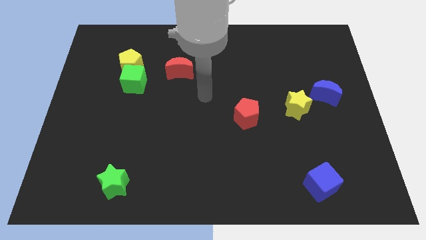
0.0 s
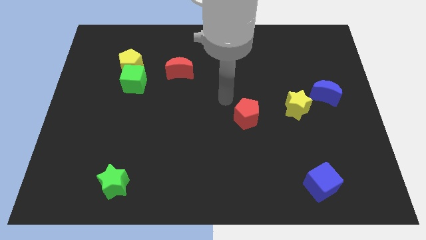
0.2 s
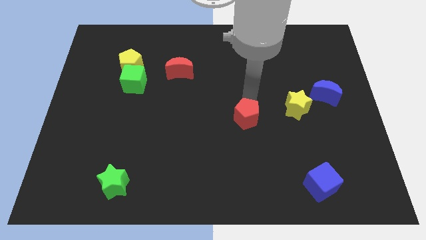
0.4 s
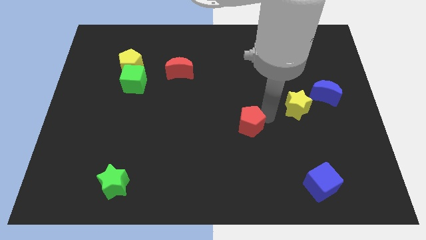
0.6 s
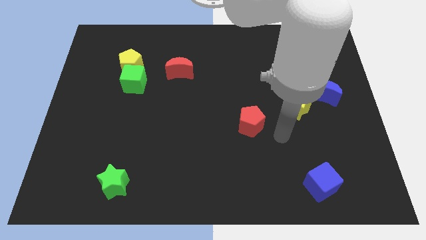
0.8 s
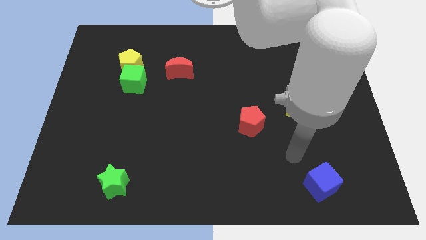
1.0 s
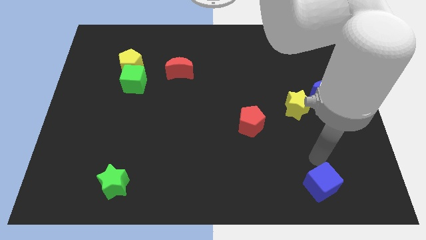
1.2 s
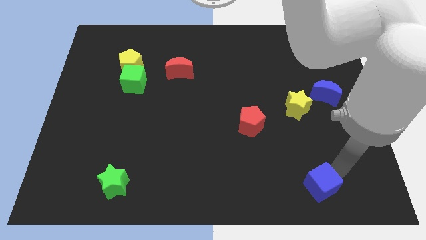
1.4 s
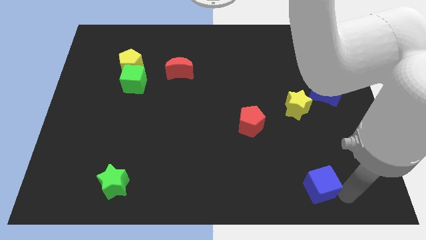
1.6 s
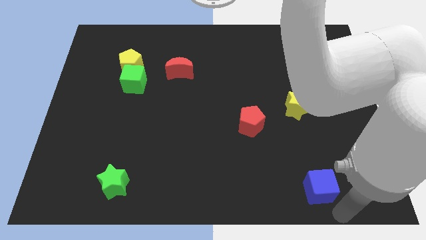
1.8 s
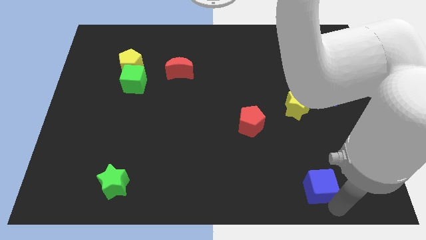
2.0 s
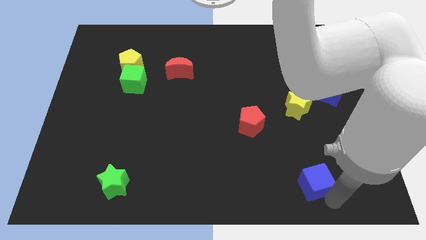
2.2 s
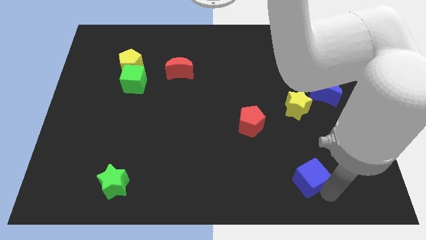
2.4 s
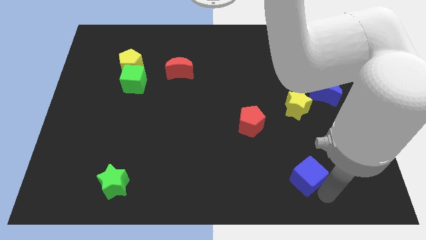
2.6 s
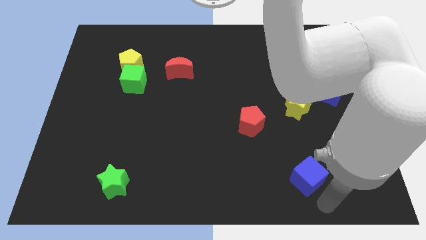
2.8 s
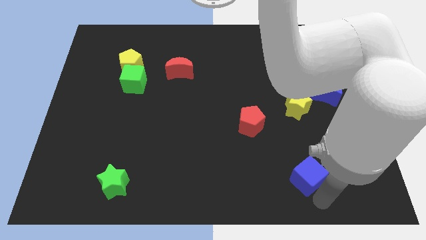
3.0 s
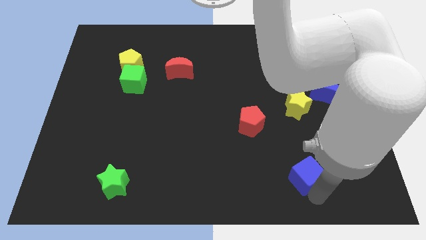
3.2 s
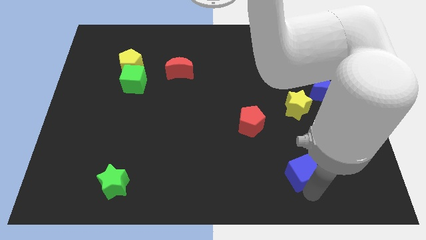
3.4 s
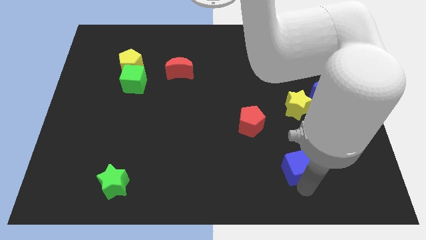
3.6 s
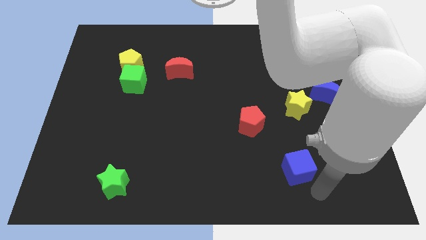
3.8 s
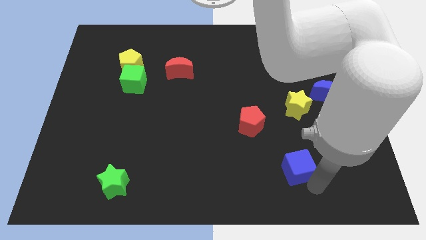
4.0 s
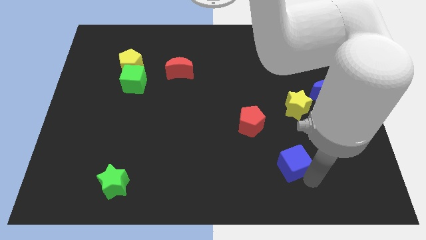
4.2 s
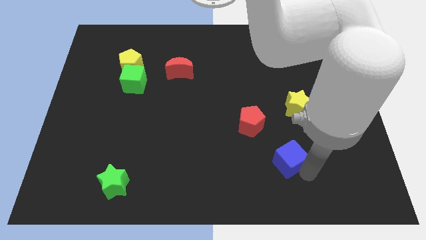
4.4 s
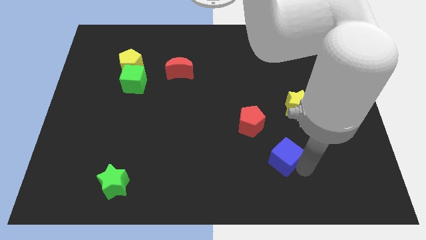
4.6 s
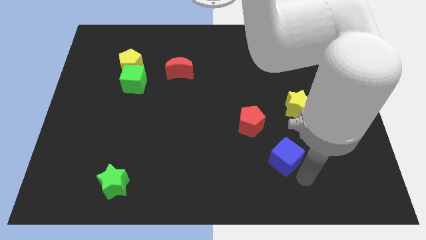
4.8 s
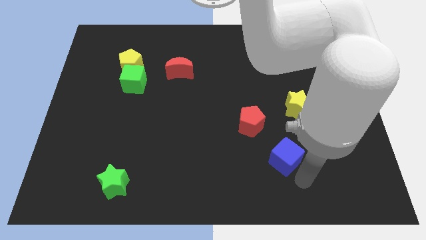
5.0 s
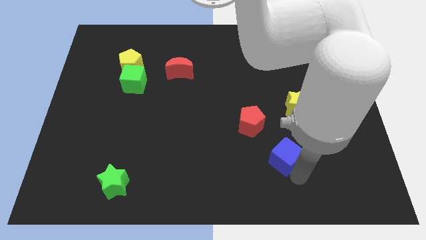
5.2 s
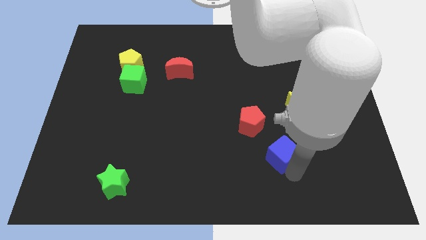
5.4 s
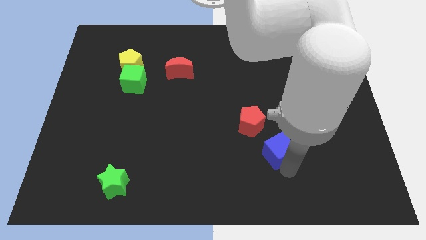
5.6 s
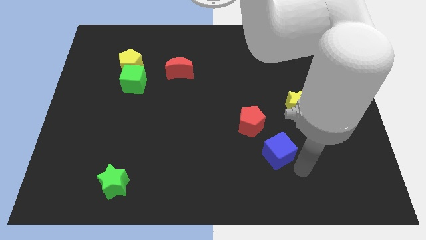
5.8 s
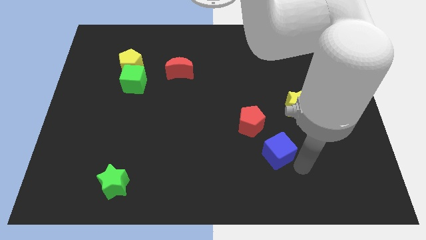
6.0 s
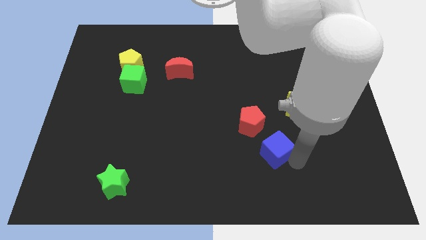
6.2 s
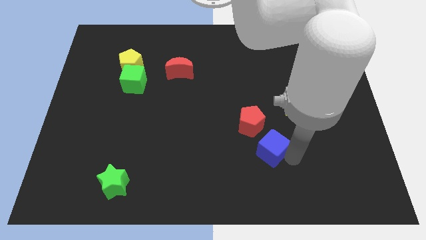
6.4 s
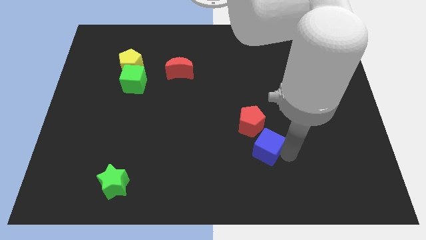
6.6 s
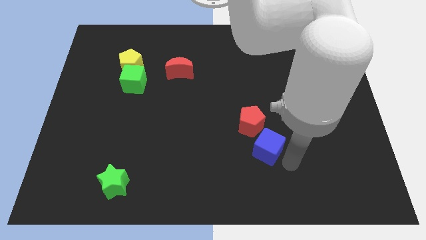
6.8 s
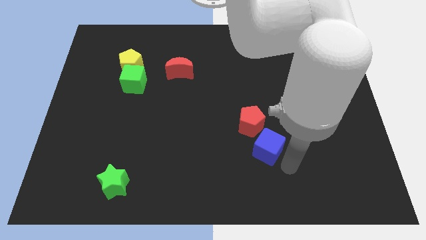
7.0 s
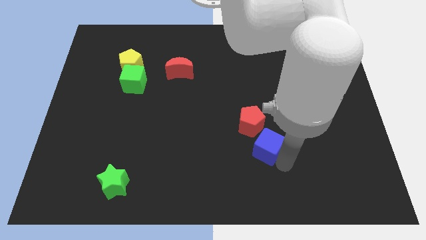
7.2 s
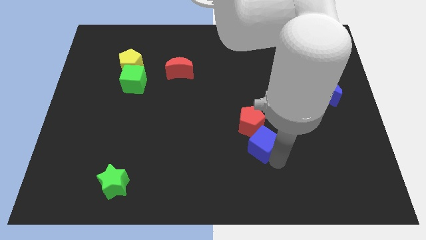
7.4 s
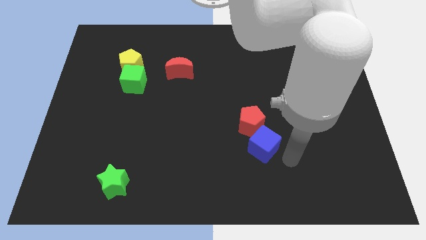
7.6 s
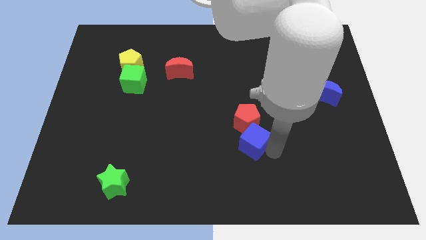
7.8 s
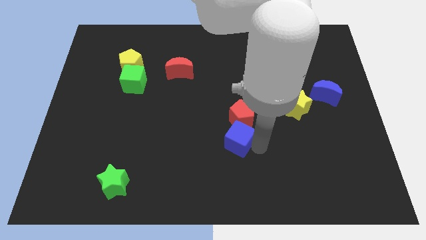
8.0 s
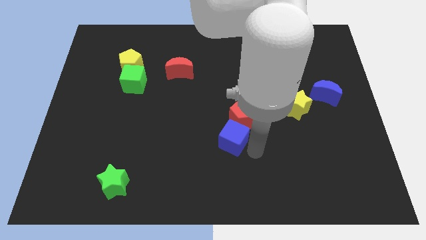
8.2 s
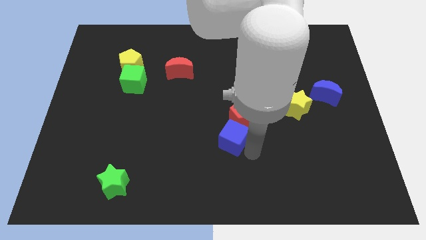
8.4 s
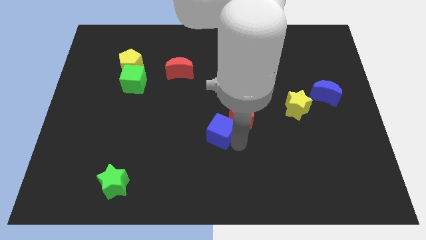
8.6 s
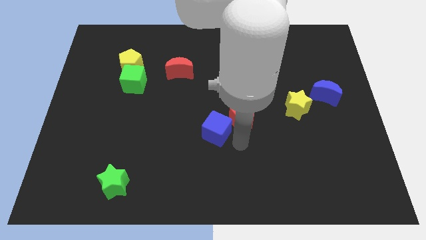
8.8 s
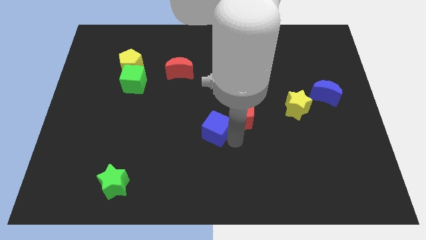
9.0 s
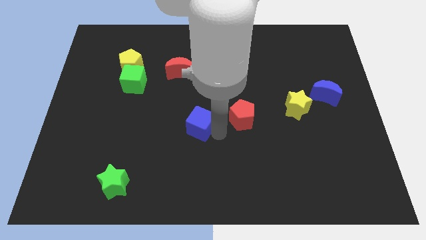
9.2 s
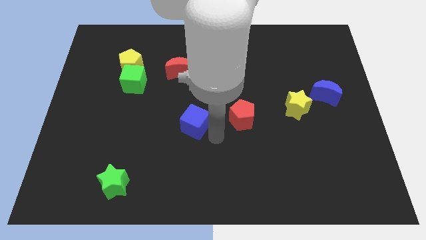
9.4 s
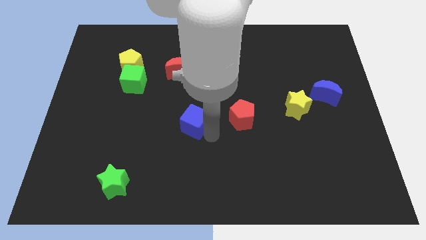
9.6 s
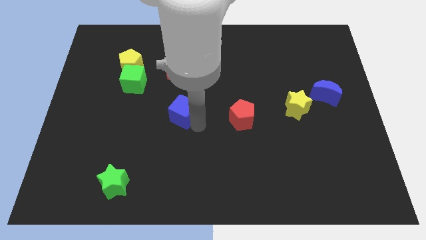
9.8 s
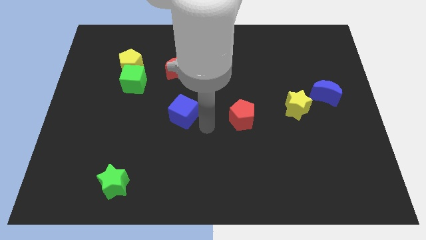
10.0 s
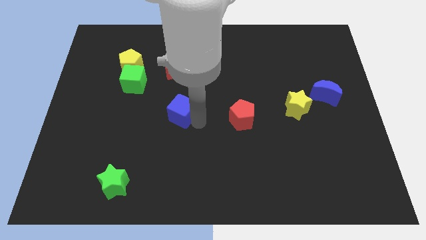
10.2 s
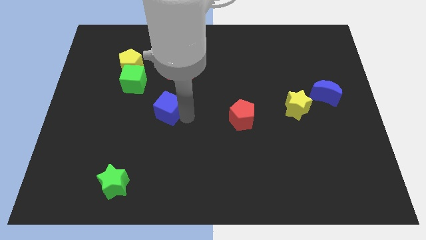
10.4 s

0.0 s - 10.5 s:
push the blue cube to the bottom right of the green cube

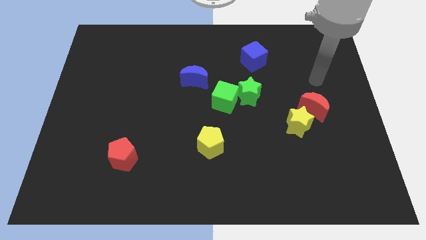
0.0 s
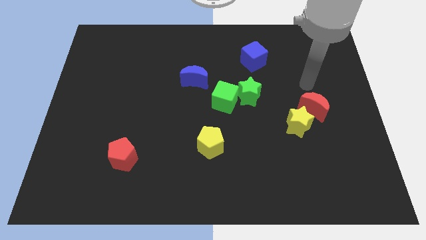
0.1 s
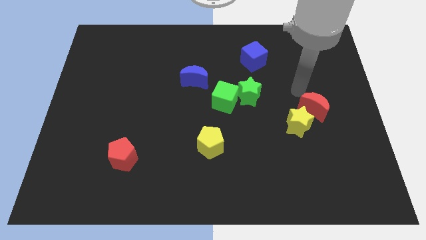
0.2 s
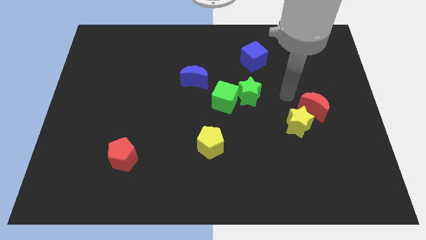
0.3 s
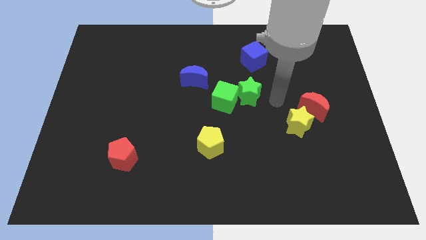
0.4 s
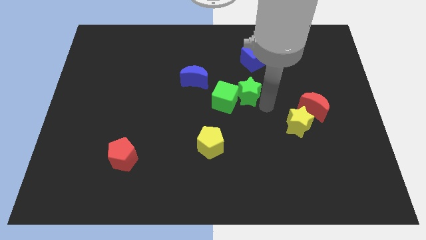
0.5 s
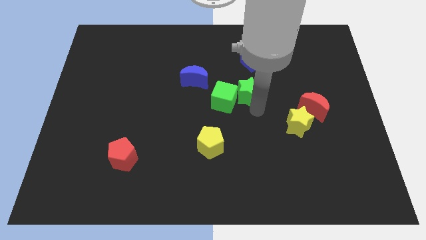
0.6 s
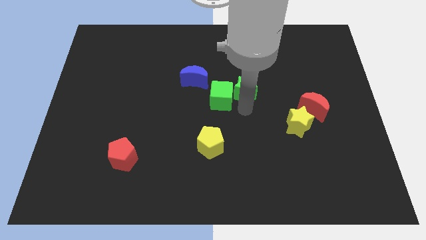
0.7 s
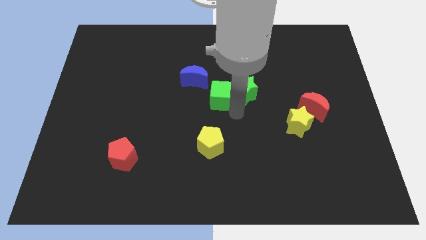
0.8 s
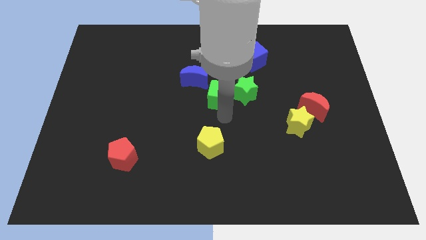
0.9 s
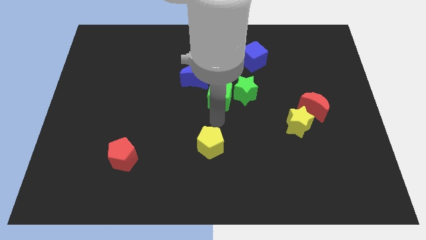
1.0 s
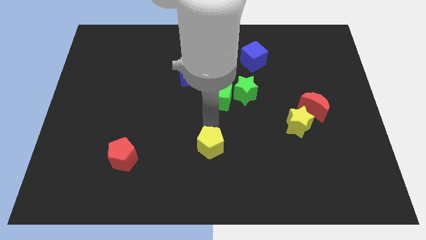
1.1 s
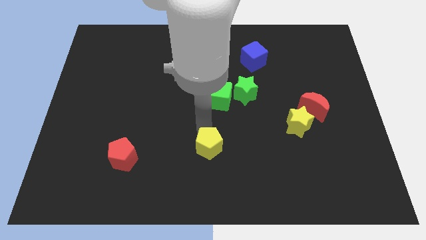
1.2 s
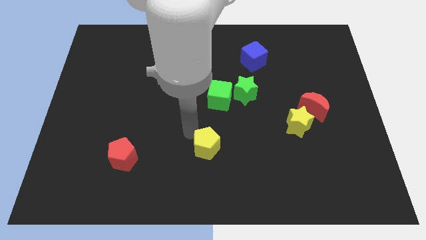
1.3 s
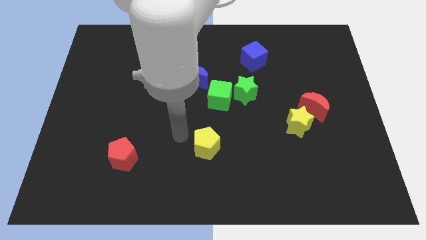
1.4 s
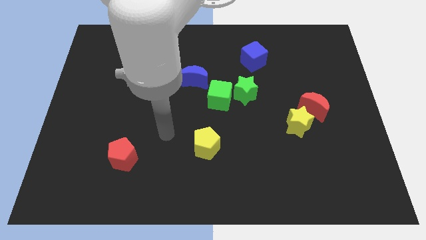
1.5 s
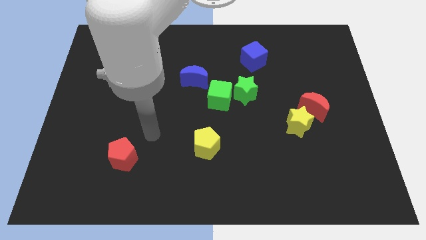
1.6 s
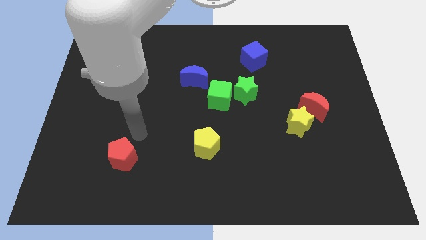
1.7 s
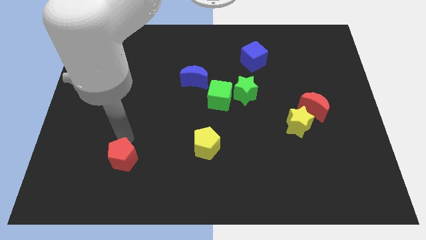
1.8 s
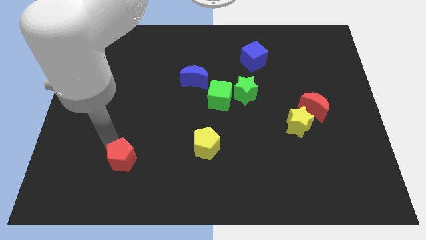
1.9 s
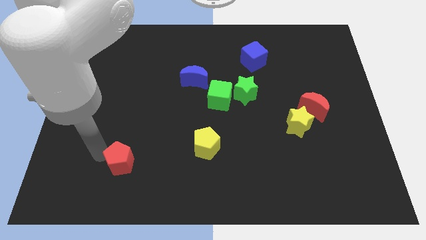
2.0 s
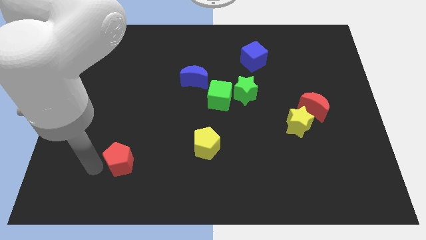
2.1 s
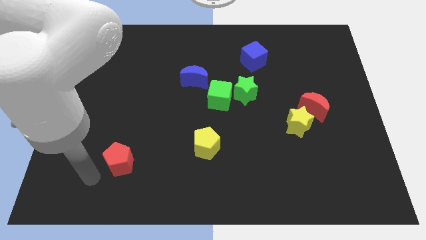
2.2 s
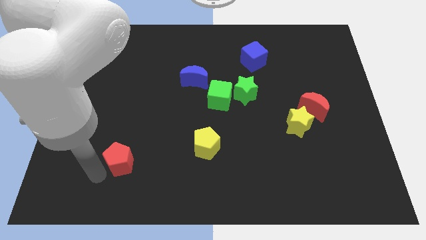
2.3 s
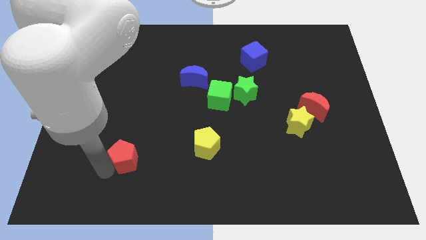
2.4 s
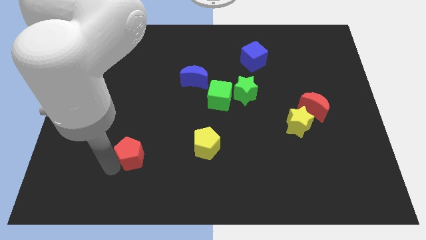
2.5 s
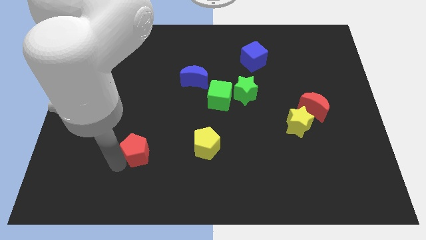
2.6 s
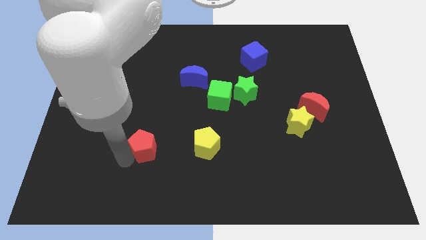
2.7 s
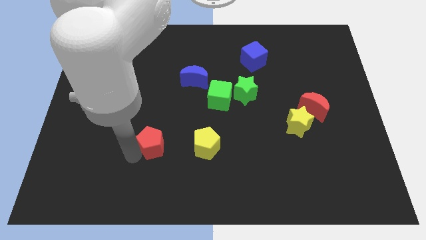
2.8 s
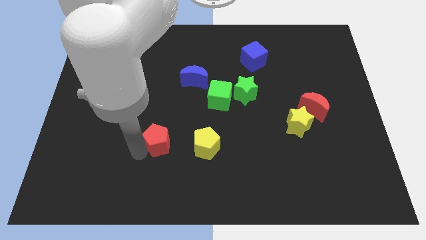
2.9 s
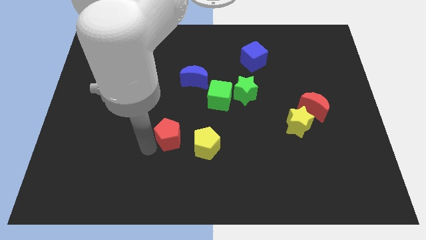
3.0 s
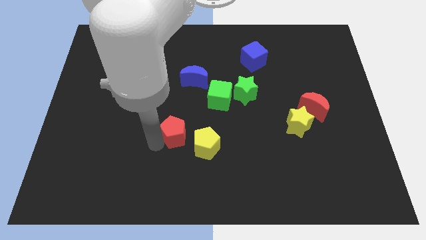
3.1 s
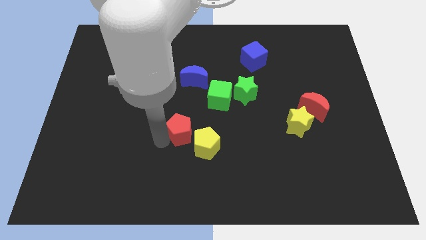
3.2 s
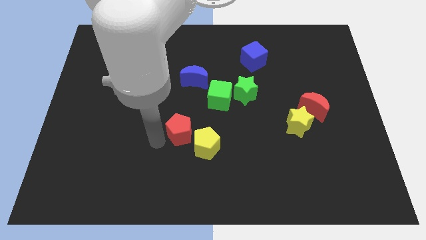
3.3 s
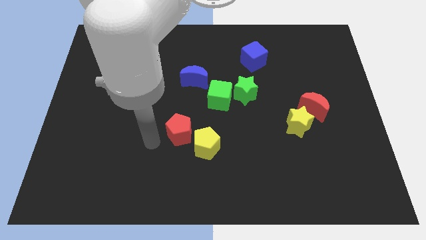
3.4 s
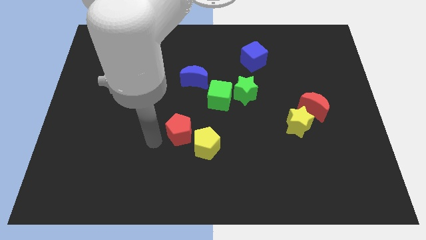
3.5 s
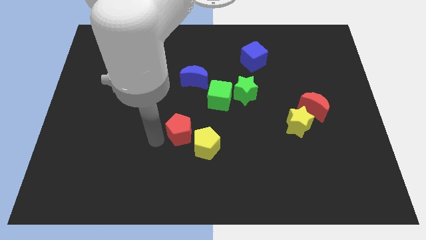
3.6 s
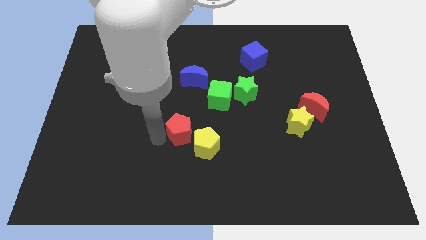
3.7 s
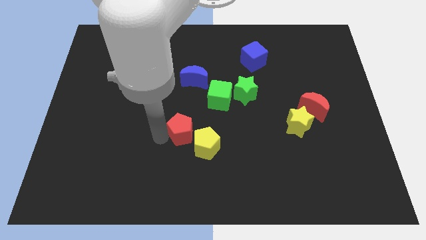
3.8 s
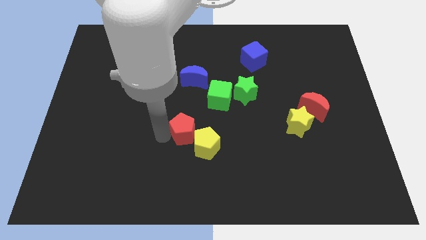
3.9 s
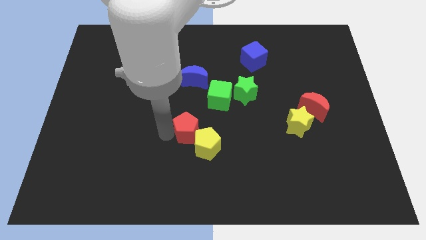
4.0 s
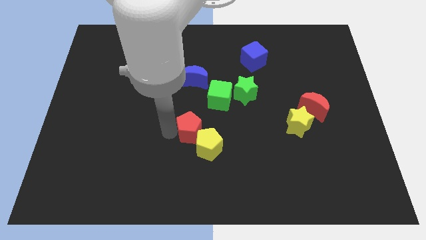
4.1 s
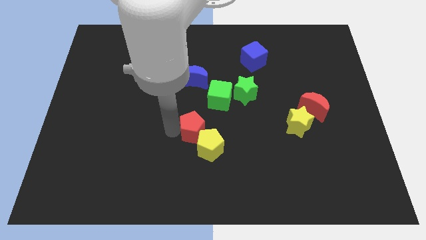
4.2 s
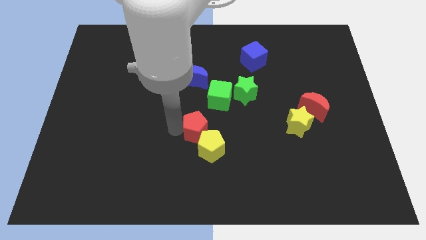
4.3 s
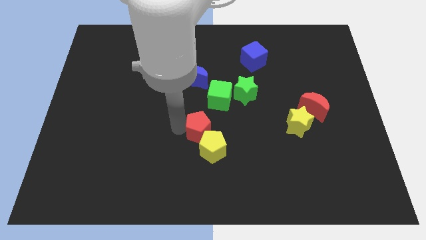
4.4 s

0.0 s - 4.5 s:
slide the red pentagon to the bottom of the green cube
